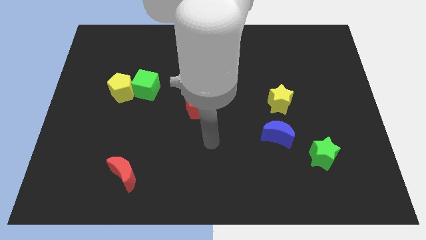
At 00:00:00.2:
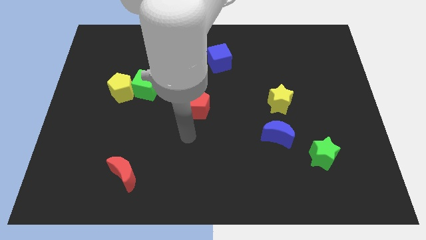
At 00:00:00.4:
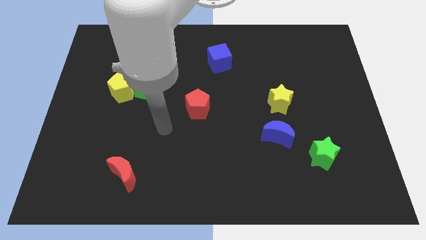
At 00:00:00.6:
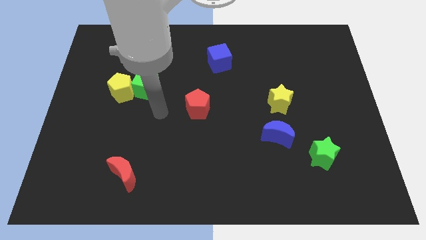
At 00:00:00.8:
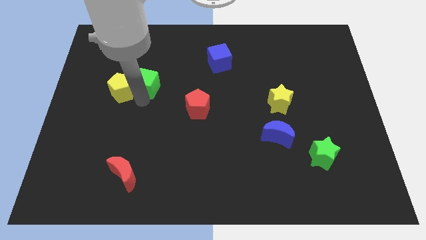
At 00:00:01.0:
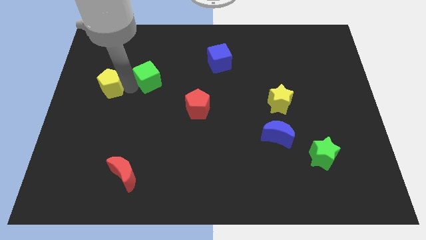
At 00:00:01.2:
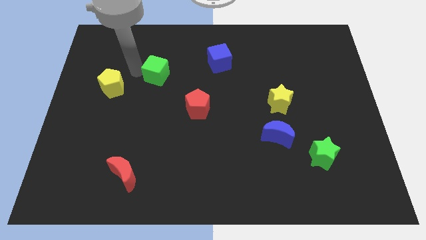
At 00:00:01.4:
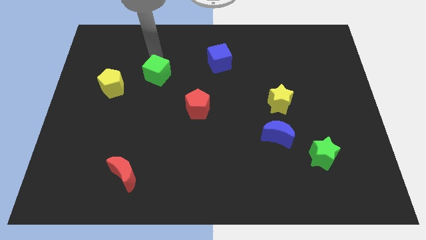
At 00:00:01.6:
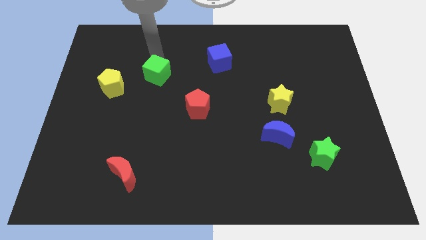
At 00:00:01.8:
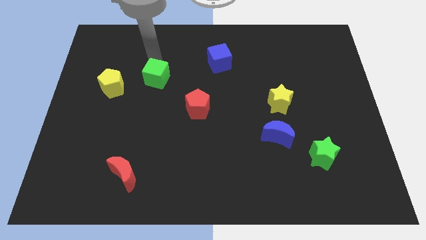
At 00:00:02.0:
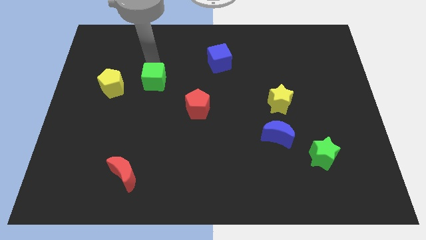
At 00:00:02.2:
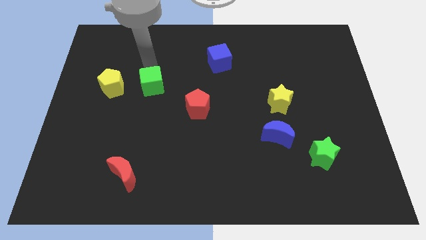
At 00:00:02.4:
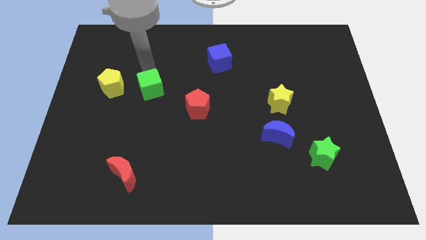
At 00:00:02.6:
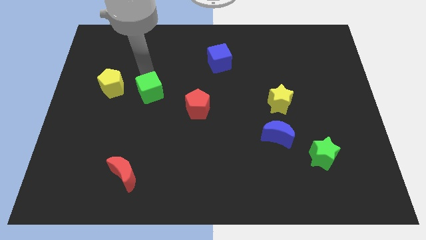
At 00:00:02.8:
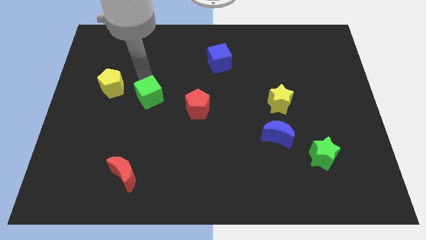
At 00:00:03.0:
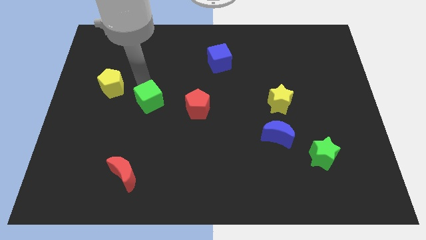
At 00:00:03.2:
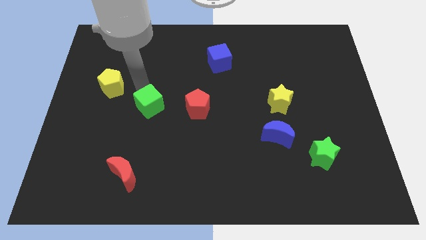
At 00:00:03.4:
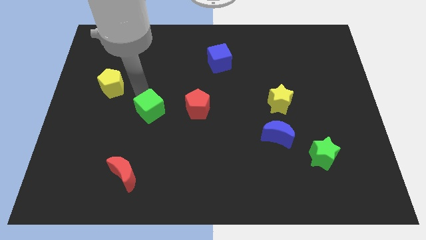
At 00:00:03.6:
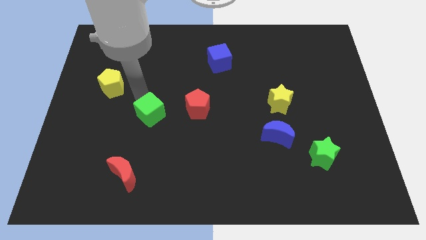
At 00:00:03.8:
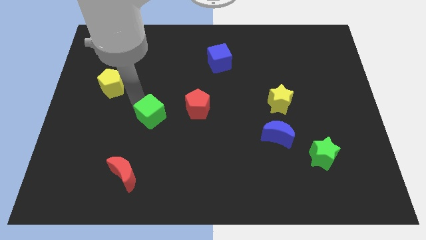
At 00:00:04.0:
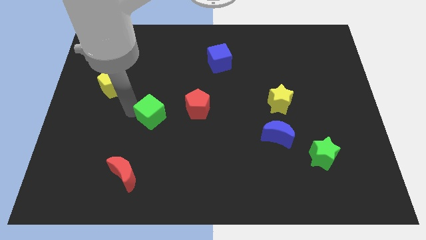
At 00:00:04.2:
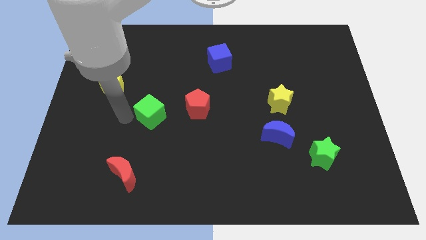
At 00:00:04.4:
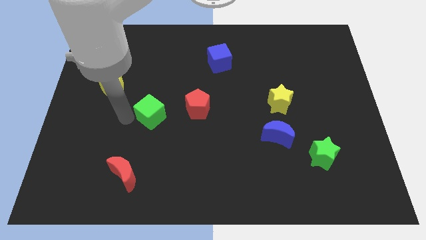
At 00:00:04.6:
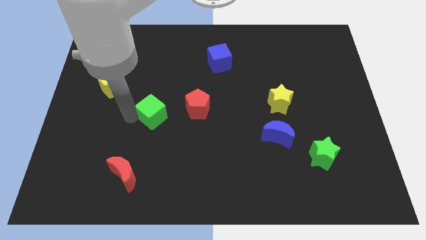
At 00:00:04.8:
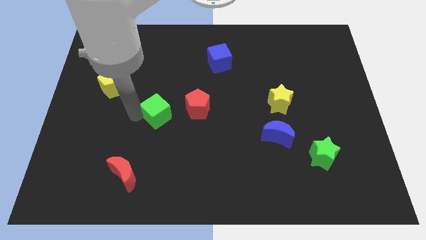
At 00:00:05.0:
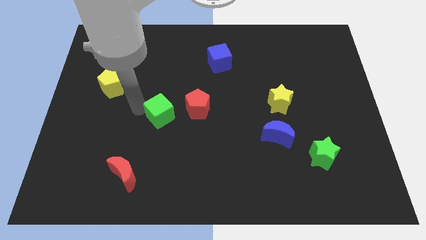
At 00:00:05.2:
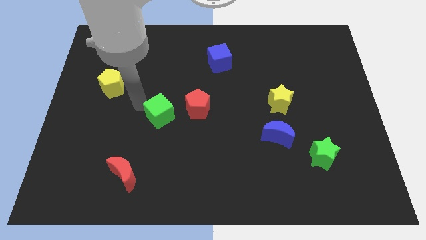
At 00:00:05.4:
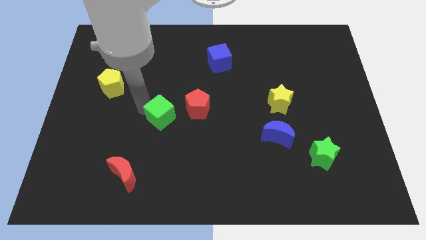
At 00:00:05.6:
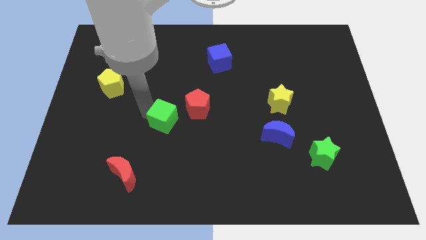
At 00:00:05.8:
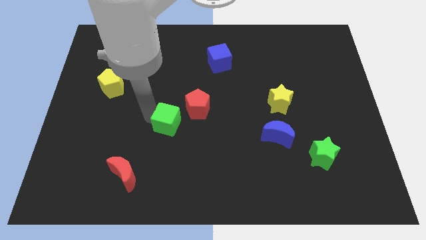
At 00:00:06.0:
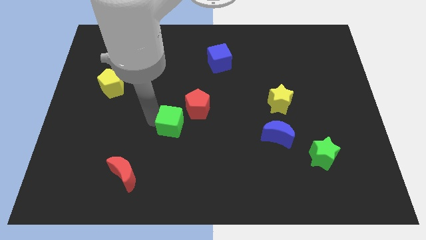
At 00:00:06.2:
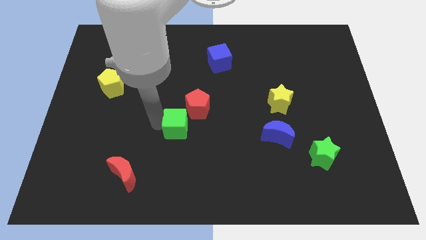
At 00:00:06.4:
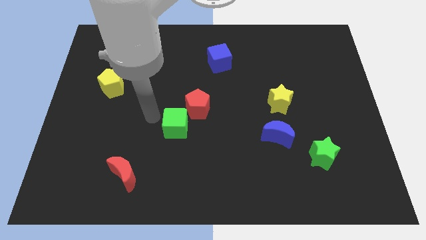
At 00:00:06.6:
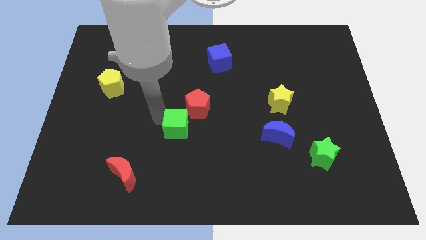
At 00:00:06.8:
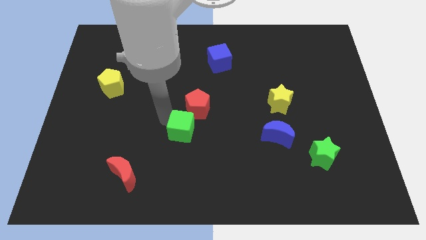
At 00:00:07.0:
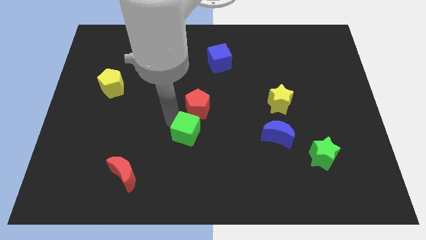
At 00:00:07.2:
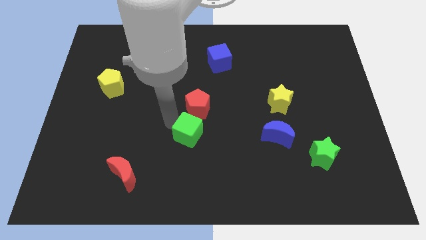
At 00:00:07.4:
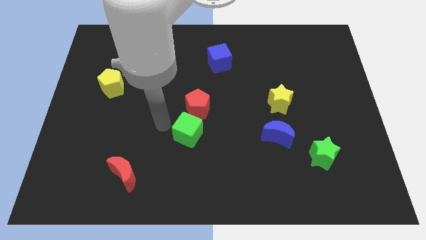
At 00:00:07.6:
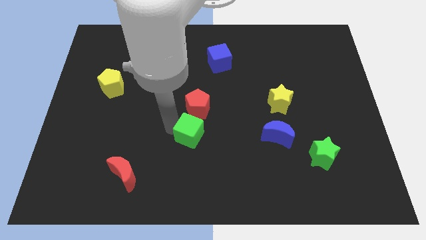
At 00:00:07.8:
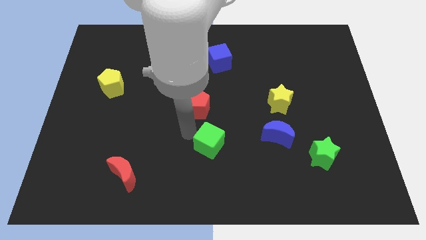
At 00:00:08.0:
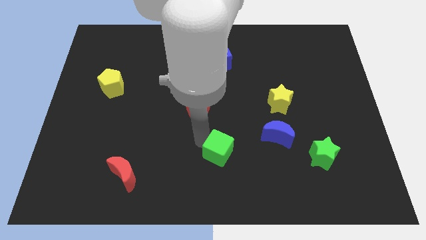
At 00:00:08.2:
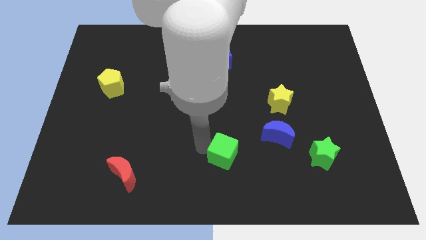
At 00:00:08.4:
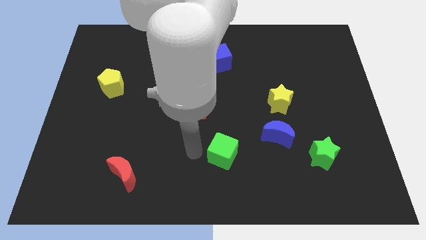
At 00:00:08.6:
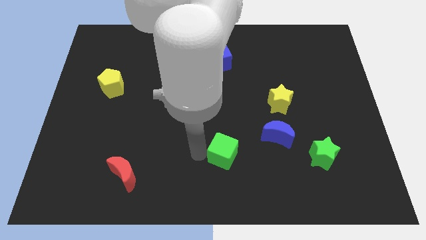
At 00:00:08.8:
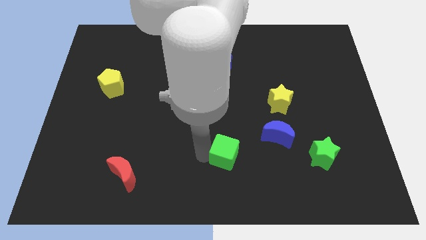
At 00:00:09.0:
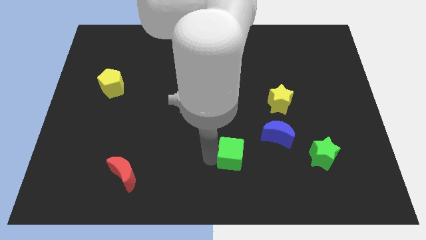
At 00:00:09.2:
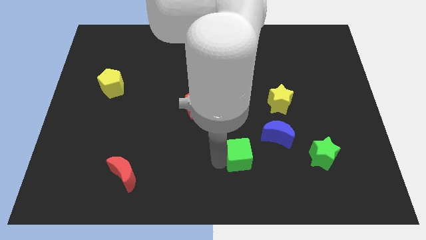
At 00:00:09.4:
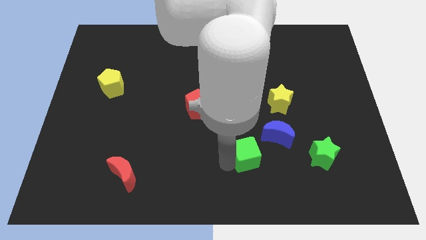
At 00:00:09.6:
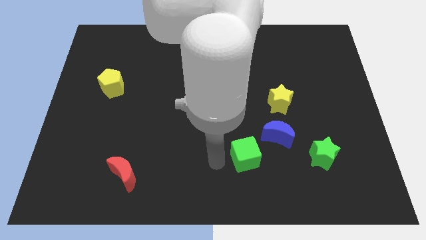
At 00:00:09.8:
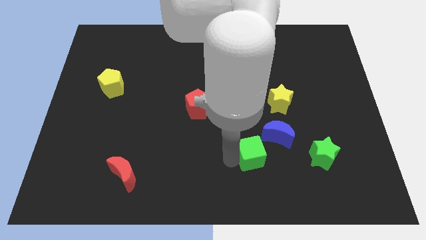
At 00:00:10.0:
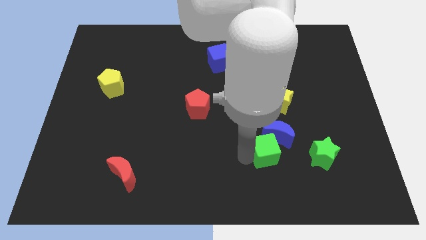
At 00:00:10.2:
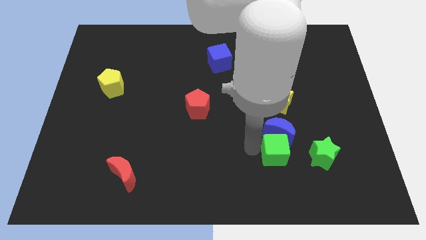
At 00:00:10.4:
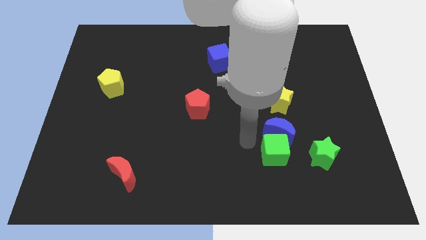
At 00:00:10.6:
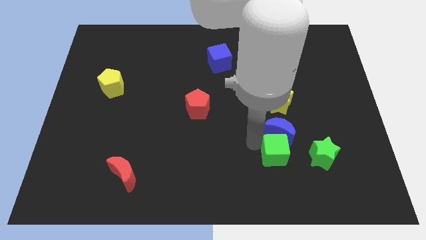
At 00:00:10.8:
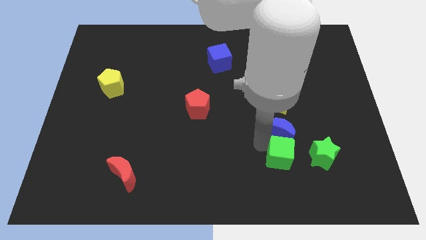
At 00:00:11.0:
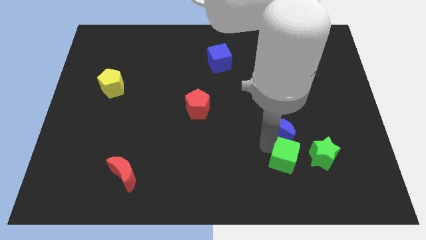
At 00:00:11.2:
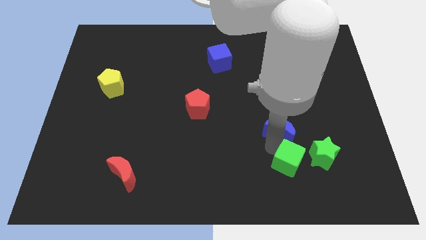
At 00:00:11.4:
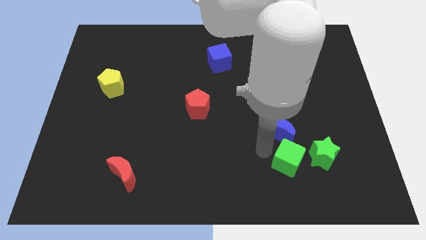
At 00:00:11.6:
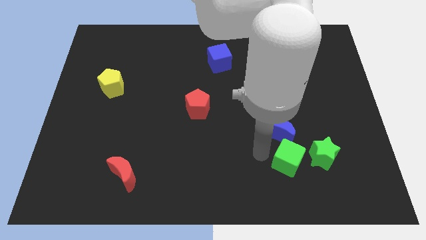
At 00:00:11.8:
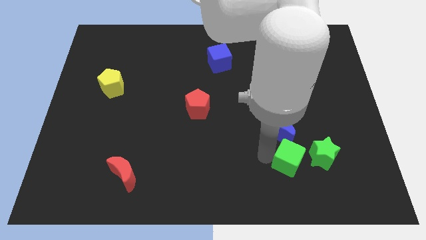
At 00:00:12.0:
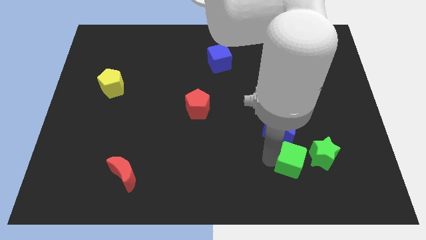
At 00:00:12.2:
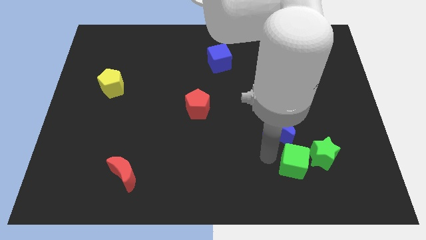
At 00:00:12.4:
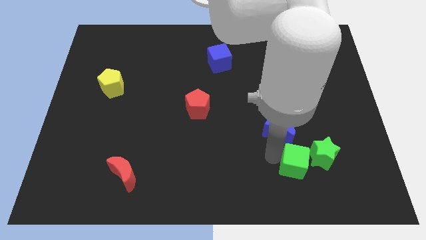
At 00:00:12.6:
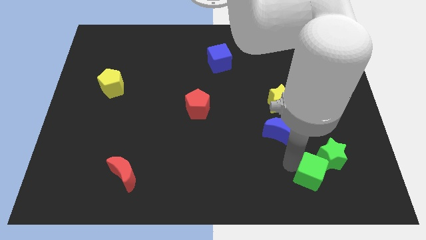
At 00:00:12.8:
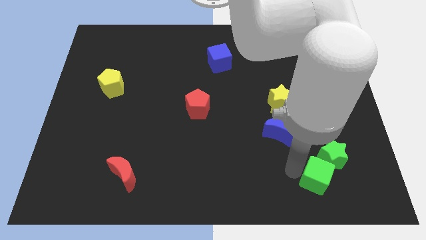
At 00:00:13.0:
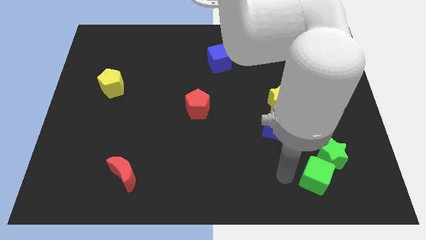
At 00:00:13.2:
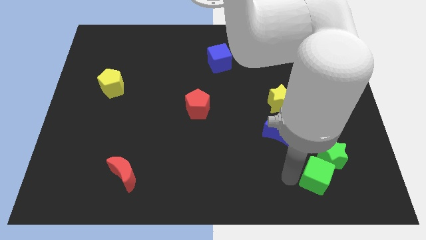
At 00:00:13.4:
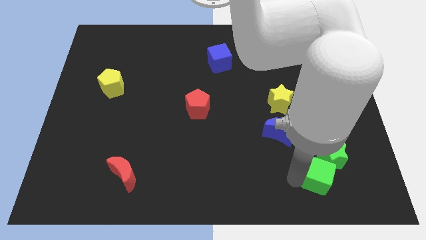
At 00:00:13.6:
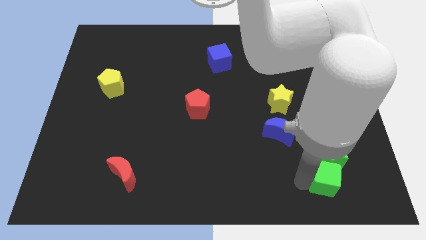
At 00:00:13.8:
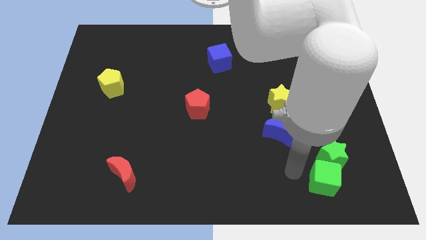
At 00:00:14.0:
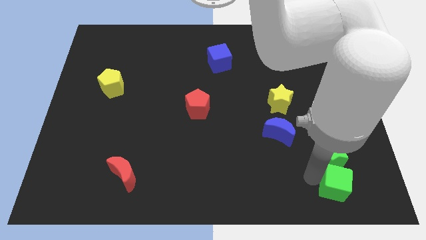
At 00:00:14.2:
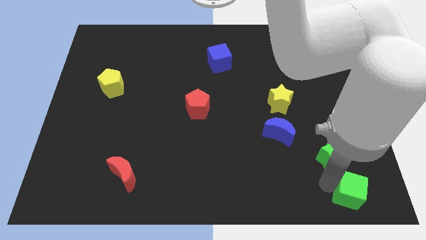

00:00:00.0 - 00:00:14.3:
slide the green cube to the bottom right
